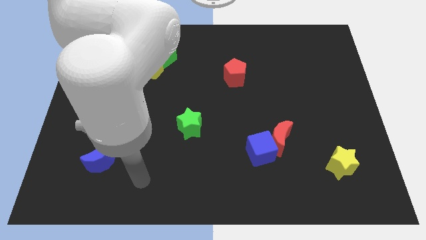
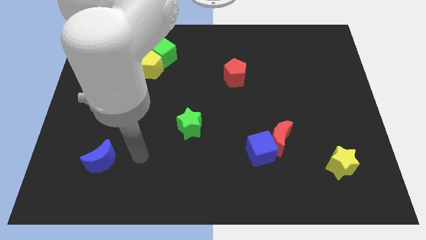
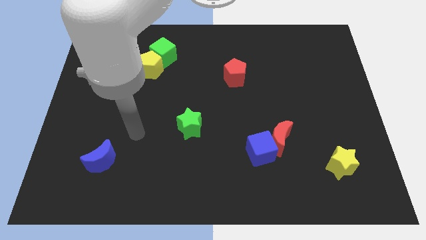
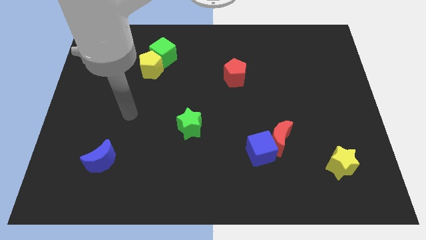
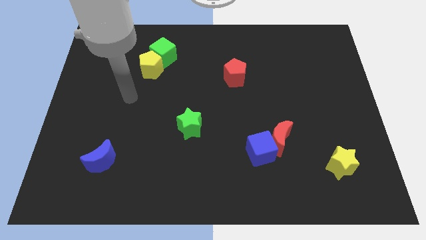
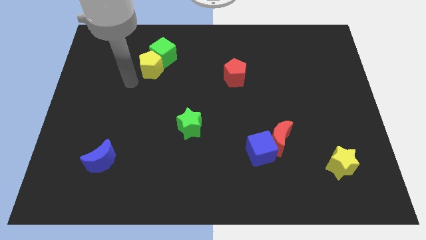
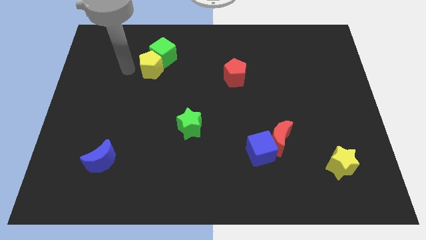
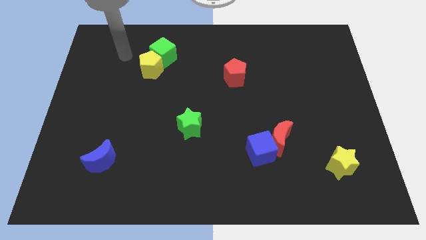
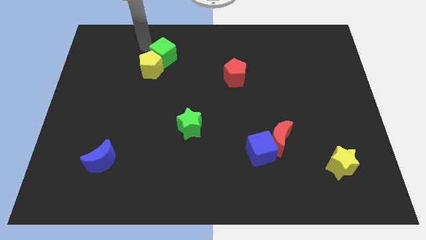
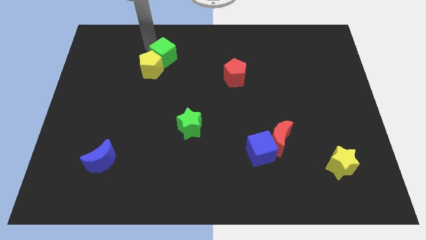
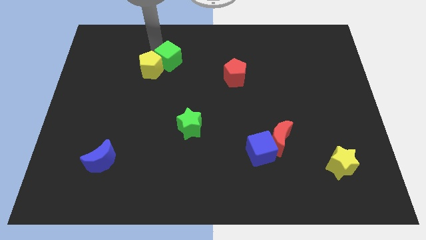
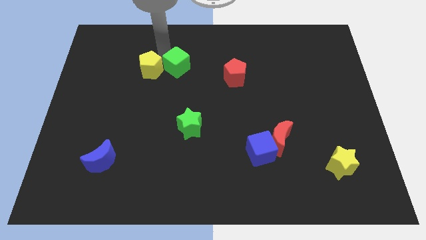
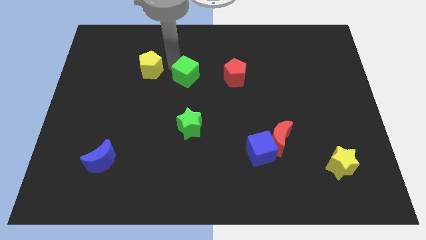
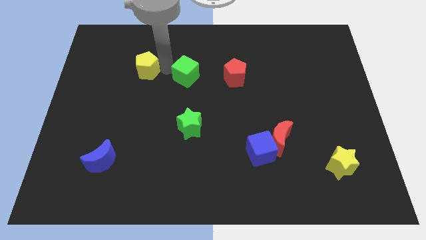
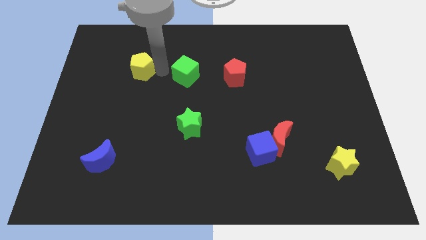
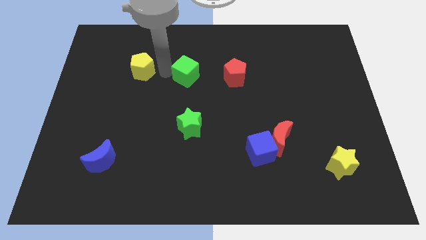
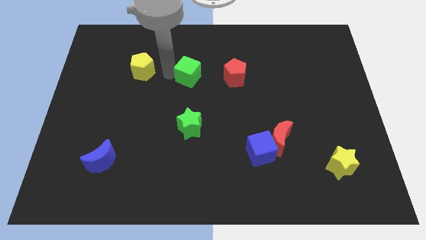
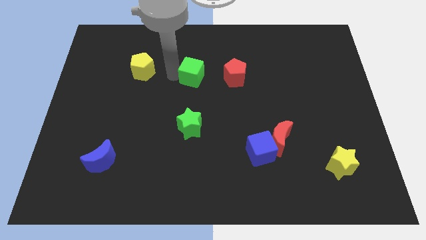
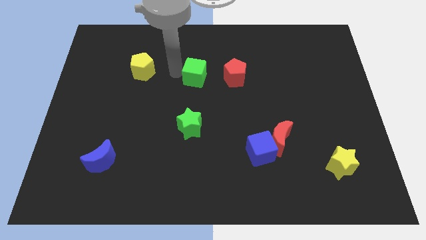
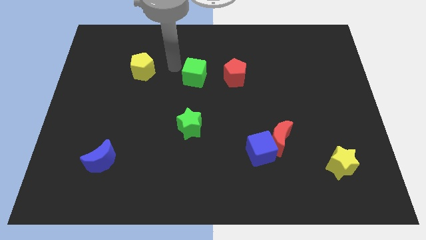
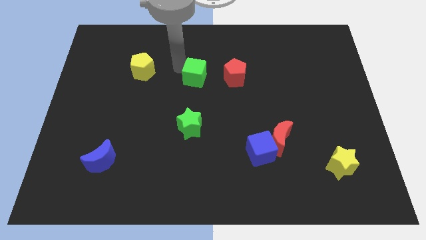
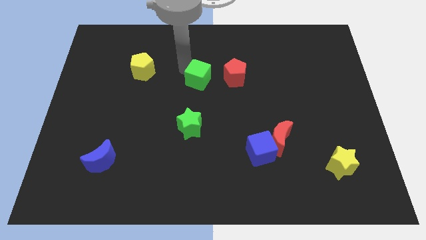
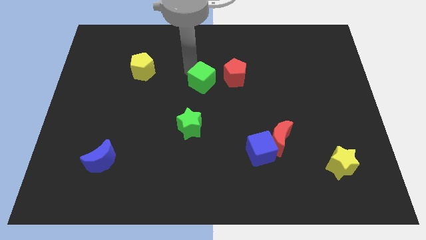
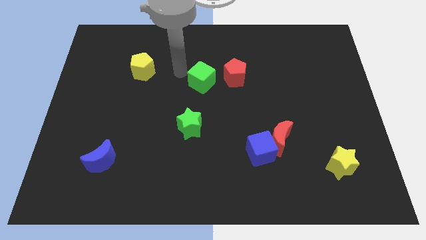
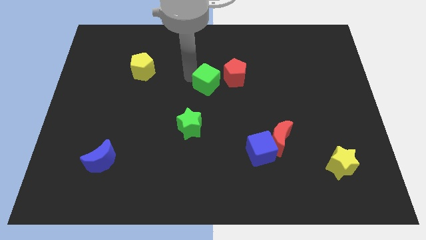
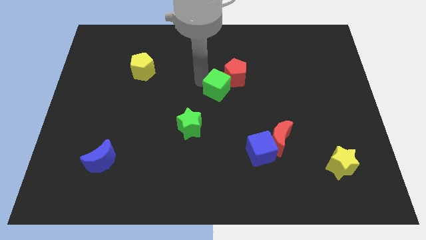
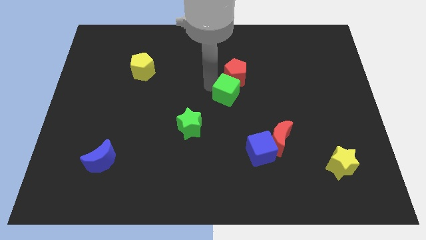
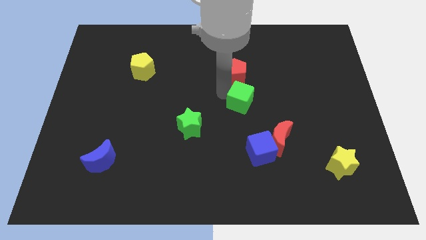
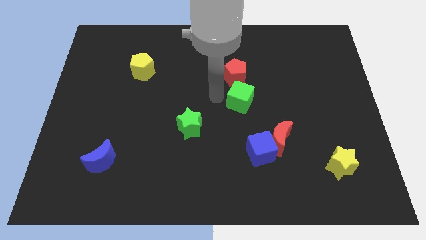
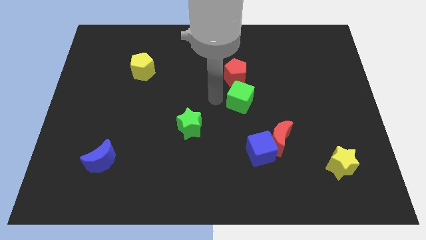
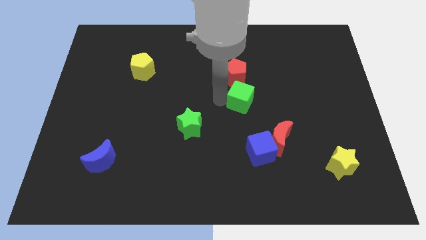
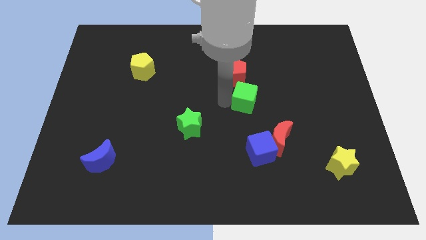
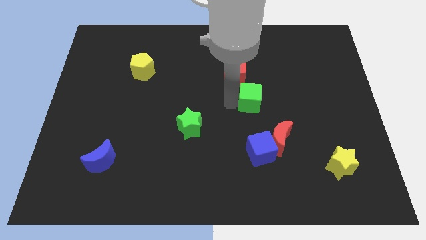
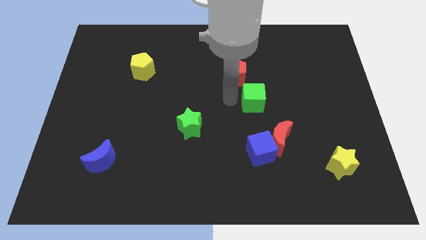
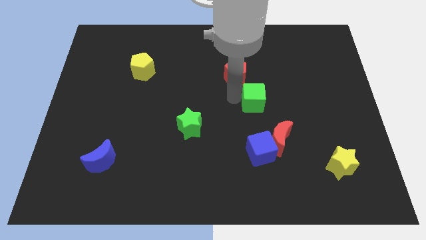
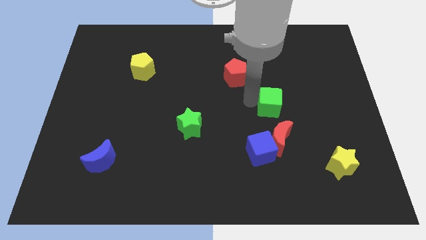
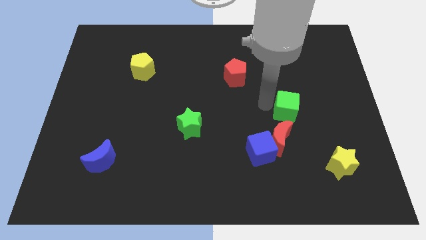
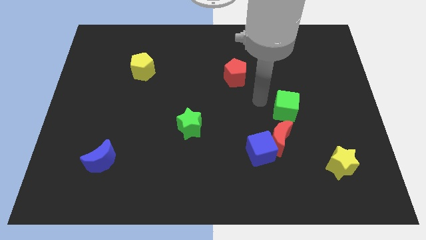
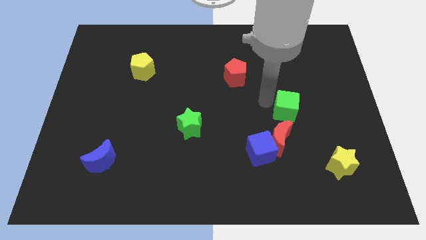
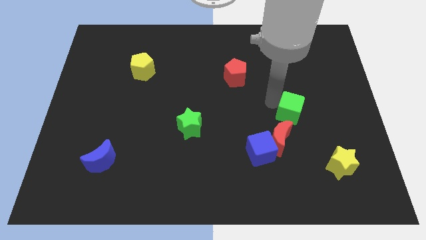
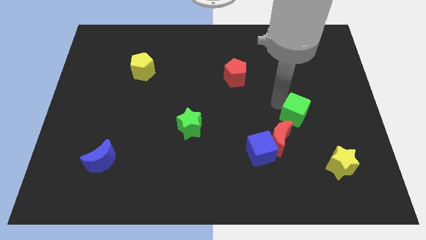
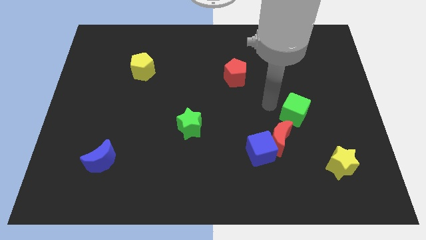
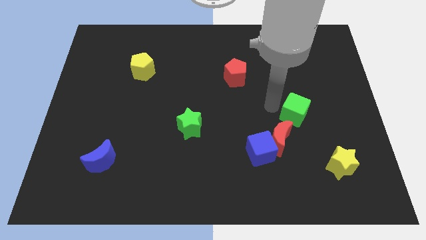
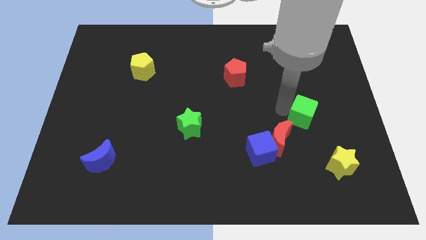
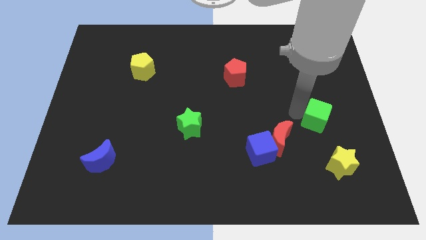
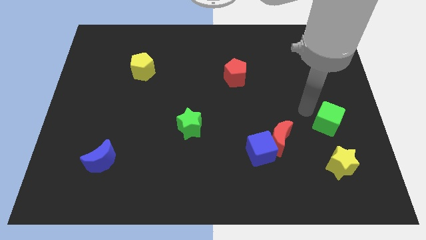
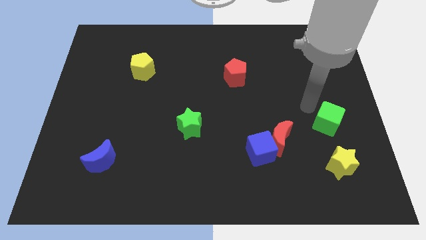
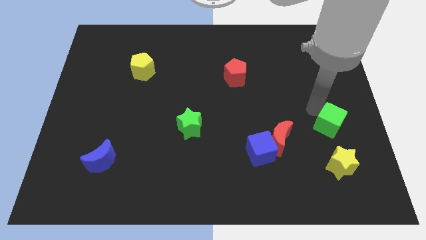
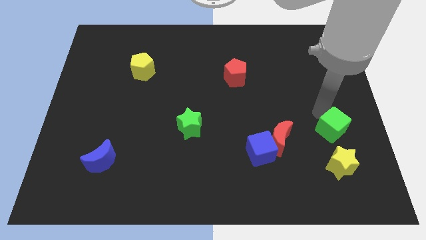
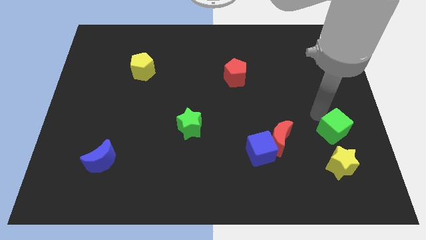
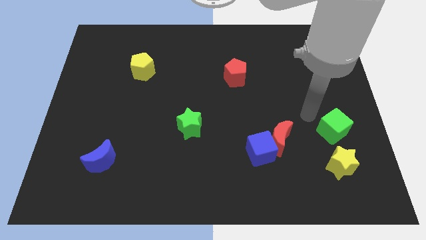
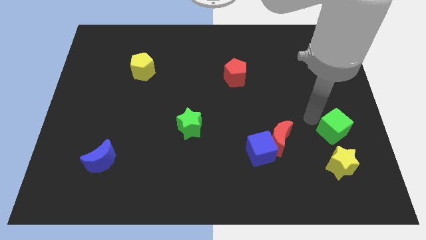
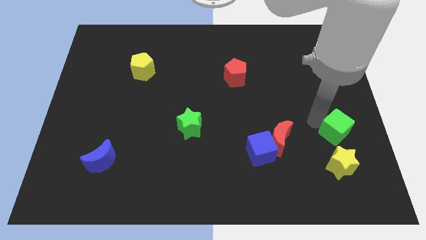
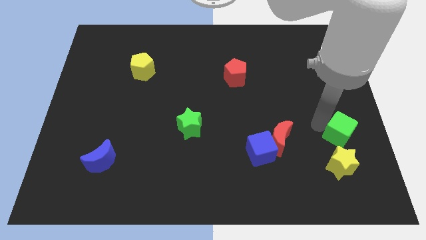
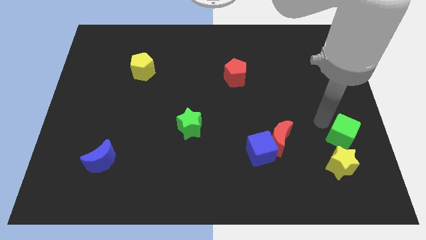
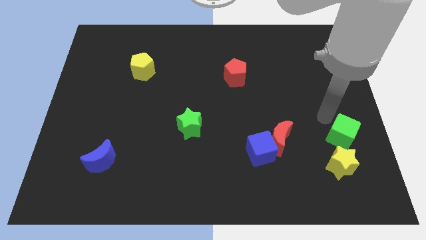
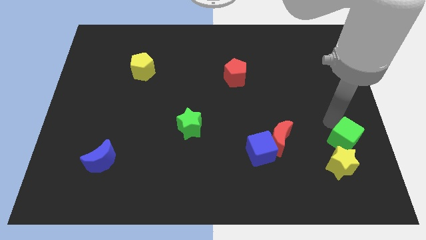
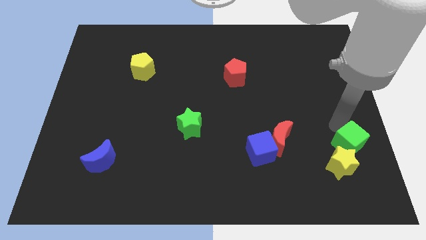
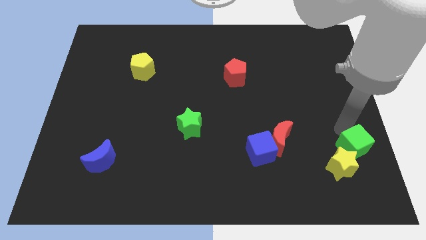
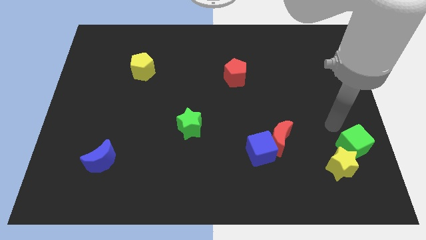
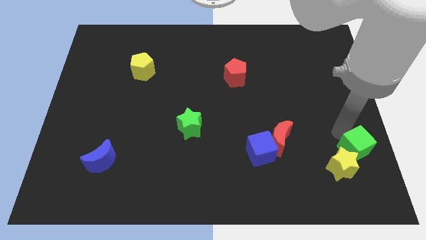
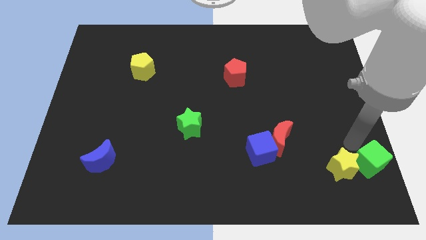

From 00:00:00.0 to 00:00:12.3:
put the green cube to the bottom right corner
